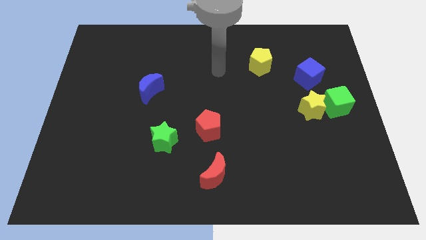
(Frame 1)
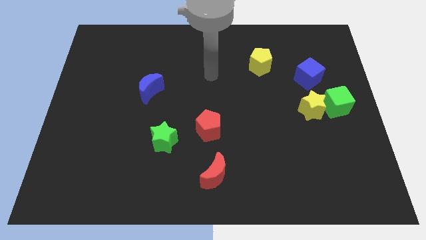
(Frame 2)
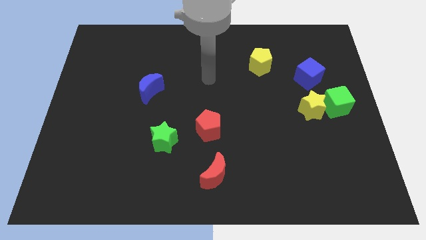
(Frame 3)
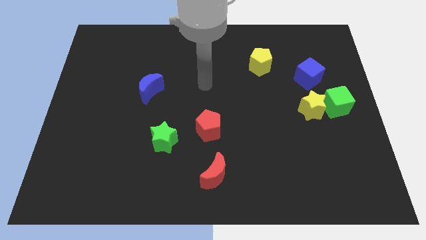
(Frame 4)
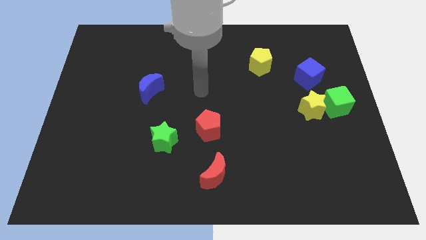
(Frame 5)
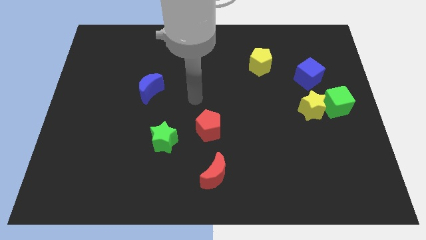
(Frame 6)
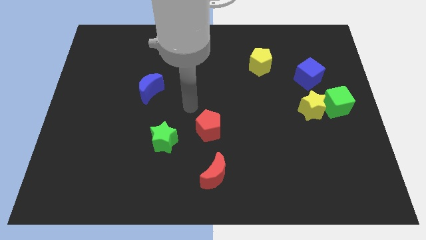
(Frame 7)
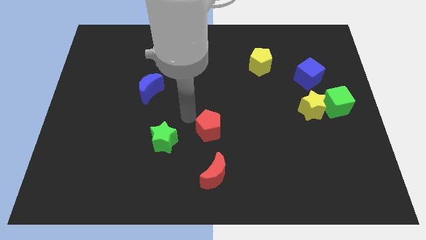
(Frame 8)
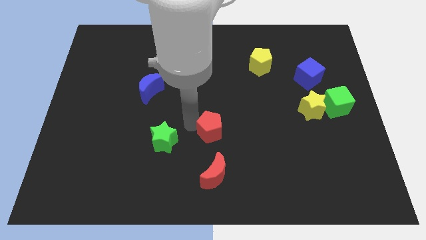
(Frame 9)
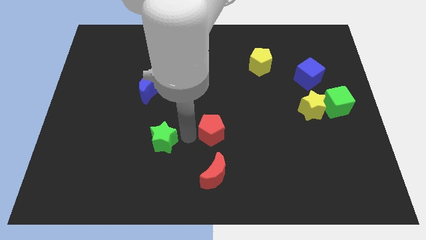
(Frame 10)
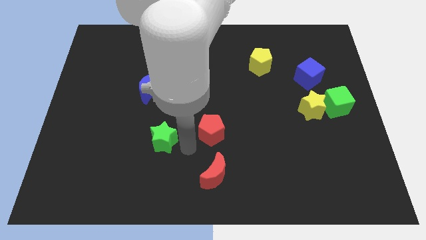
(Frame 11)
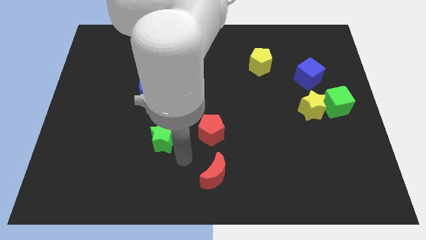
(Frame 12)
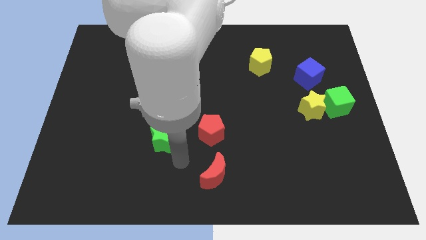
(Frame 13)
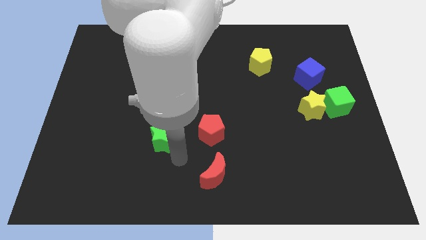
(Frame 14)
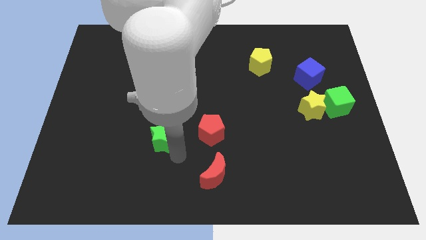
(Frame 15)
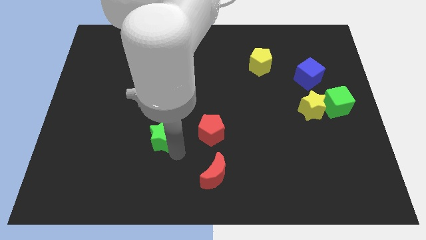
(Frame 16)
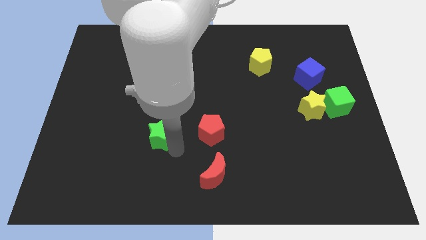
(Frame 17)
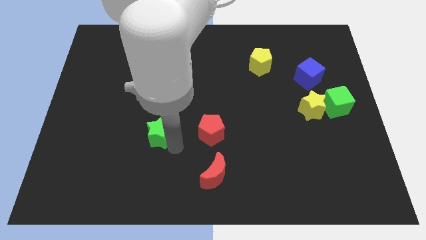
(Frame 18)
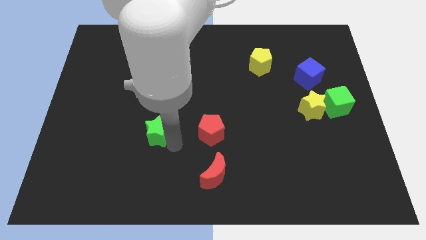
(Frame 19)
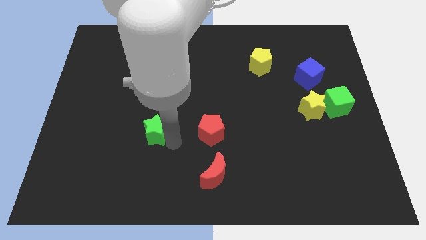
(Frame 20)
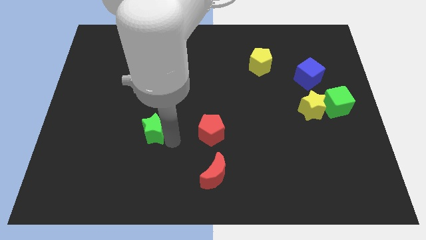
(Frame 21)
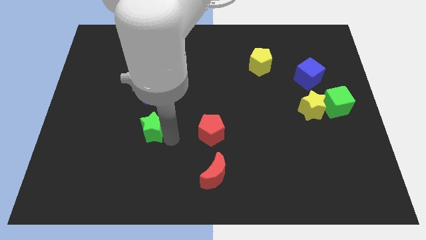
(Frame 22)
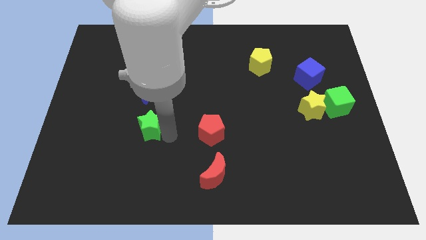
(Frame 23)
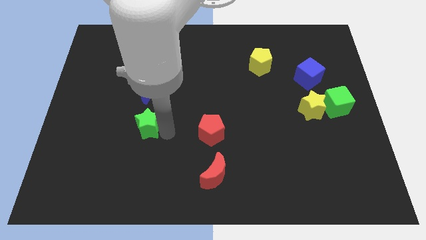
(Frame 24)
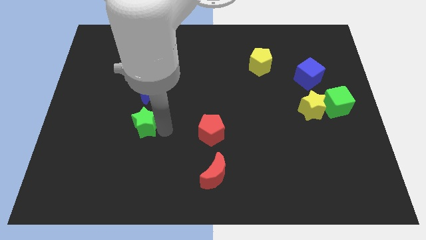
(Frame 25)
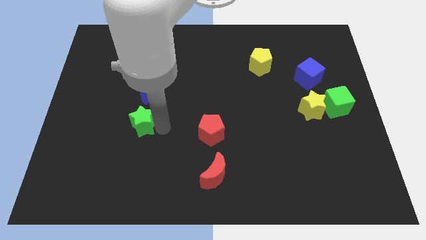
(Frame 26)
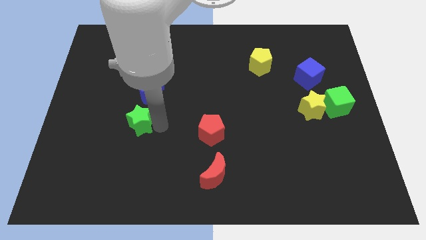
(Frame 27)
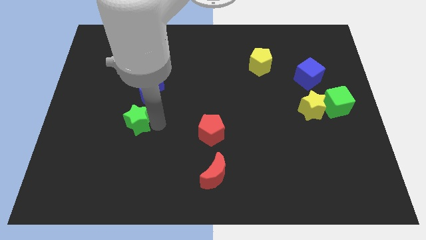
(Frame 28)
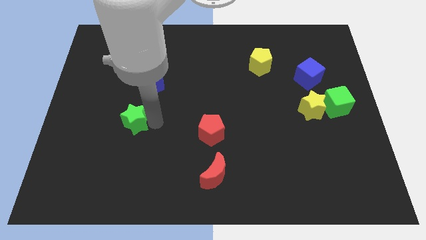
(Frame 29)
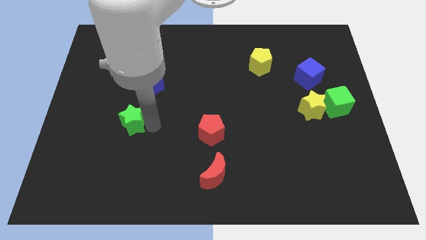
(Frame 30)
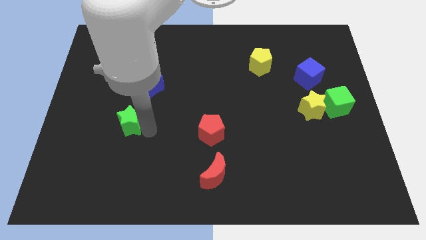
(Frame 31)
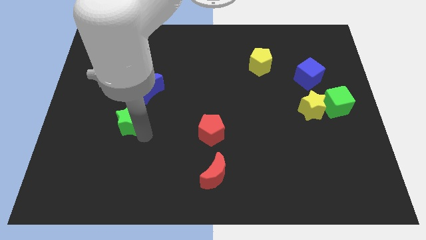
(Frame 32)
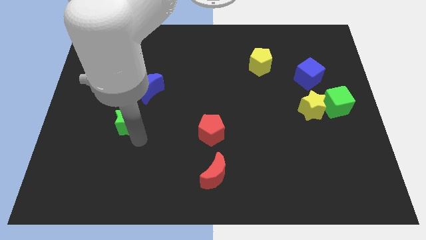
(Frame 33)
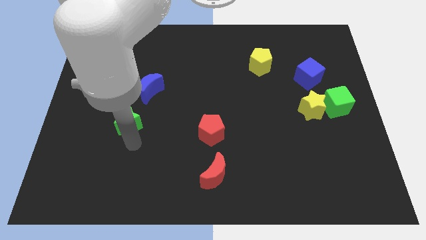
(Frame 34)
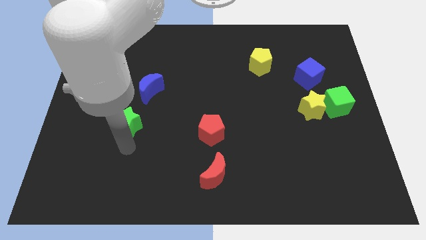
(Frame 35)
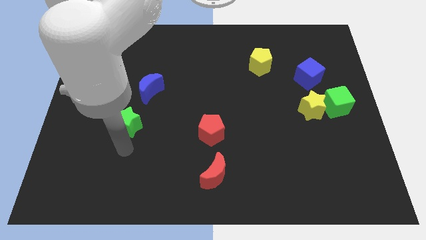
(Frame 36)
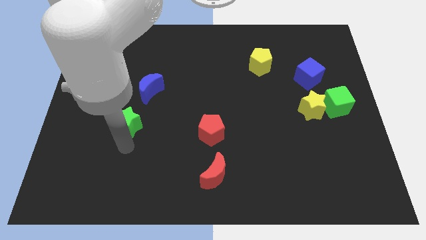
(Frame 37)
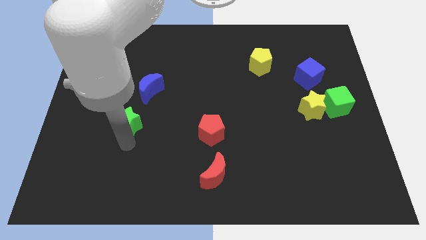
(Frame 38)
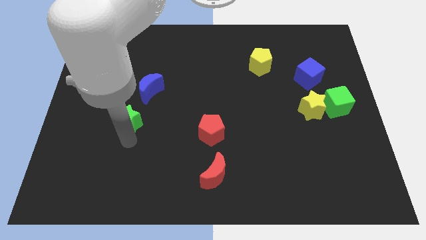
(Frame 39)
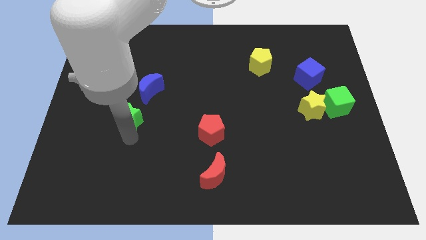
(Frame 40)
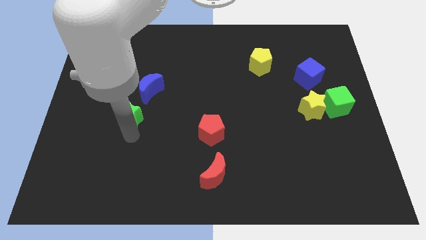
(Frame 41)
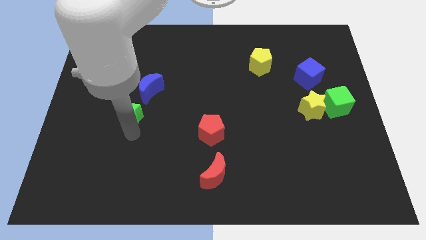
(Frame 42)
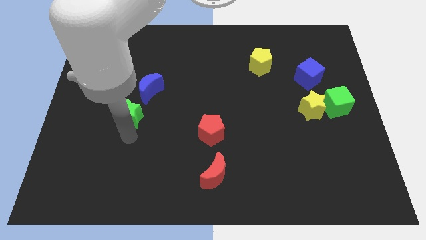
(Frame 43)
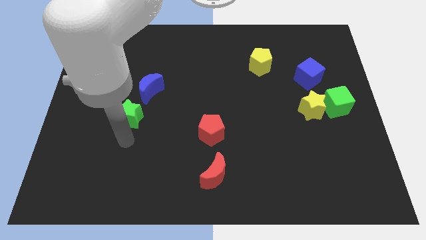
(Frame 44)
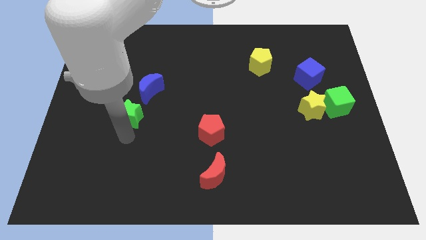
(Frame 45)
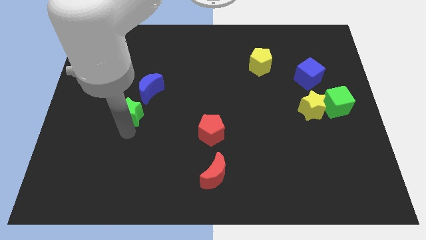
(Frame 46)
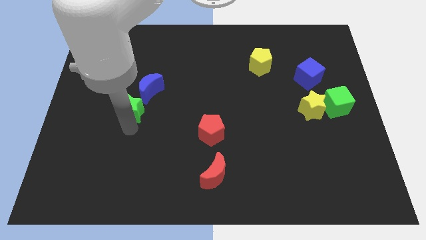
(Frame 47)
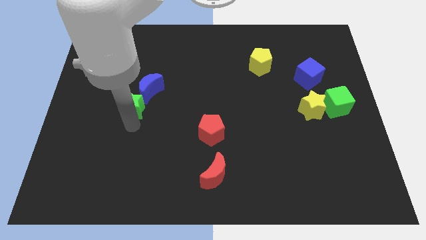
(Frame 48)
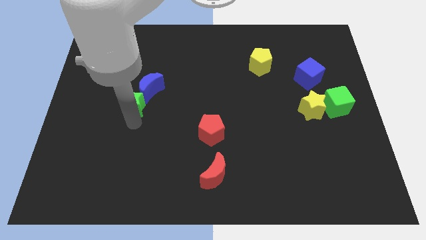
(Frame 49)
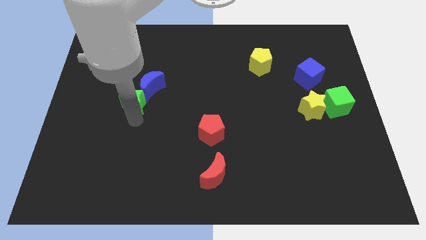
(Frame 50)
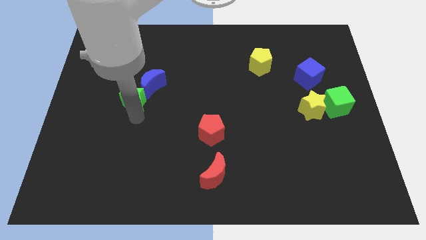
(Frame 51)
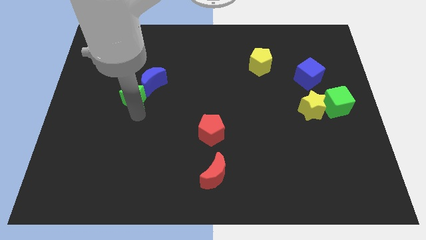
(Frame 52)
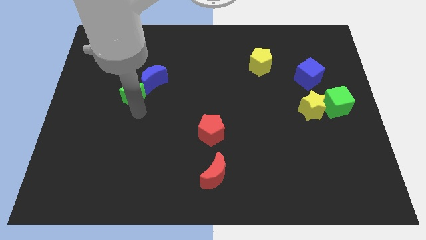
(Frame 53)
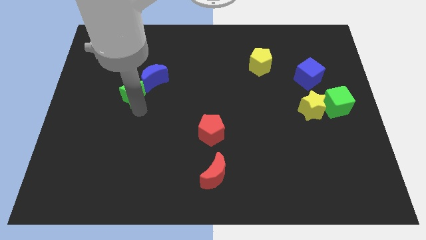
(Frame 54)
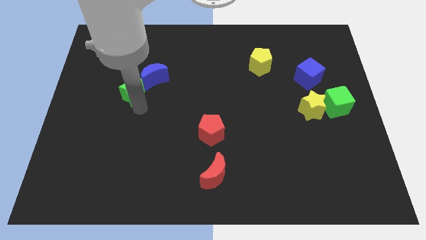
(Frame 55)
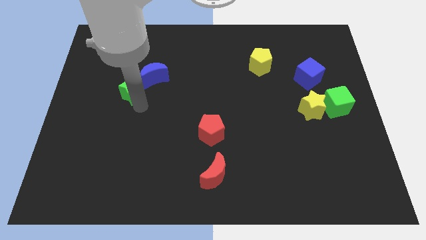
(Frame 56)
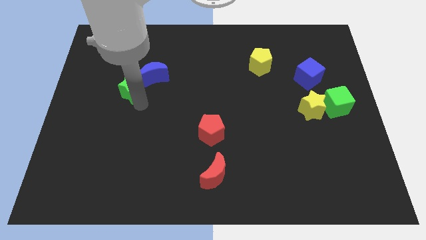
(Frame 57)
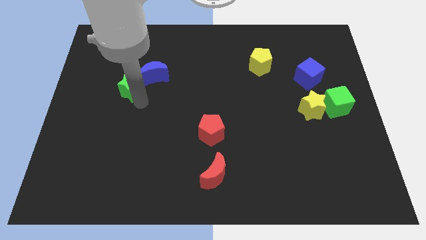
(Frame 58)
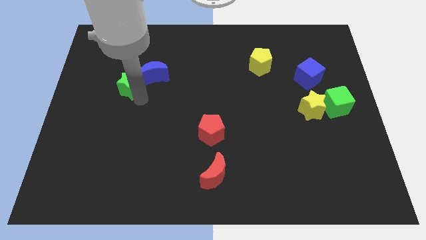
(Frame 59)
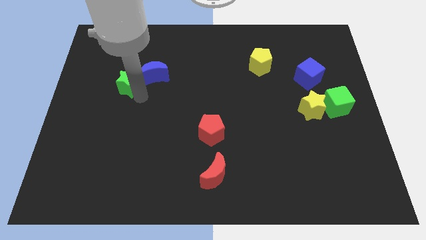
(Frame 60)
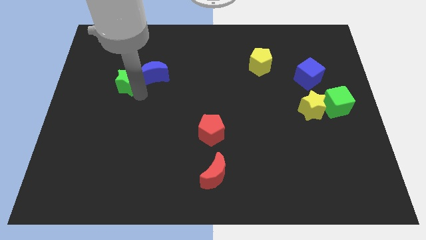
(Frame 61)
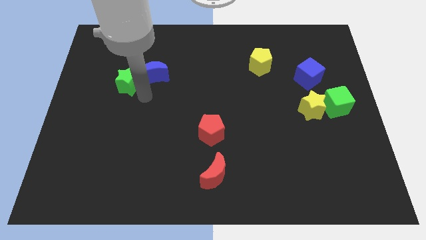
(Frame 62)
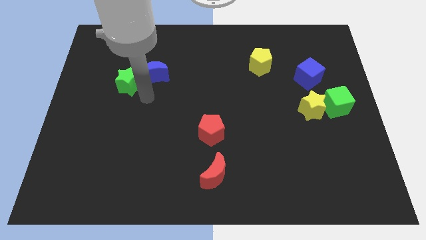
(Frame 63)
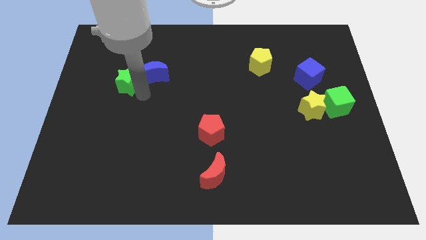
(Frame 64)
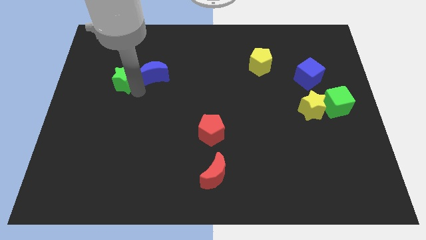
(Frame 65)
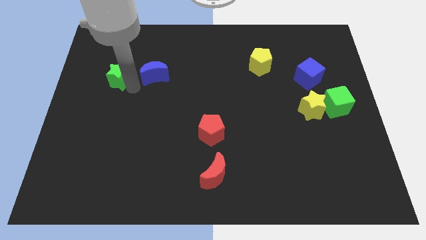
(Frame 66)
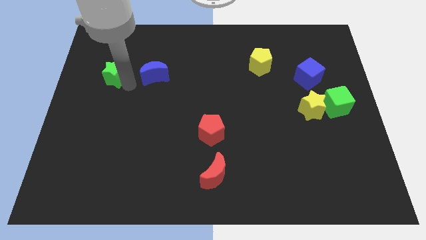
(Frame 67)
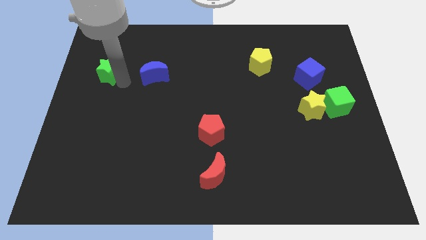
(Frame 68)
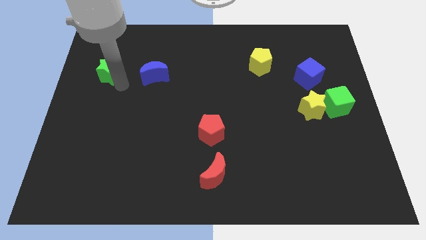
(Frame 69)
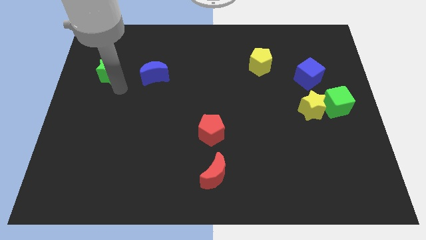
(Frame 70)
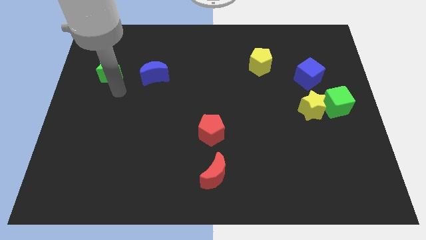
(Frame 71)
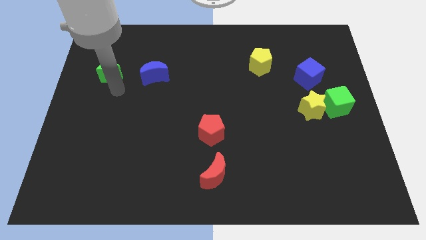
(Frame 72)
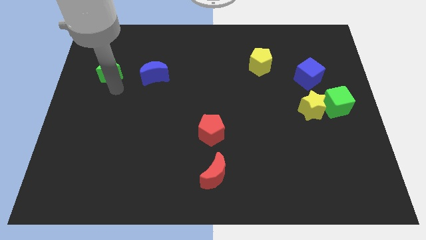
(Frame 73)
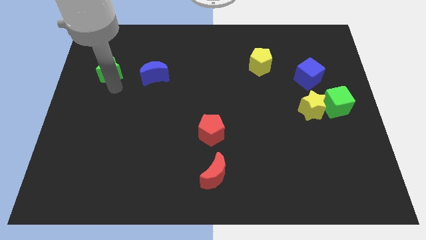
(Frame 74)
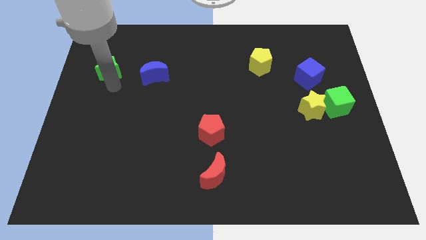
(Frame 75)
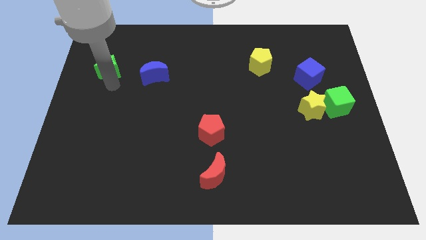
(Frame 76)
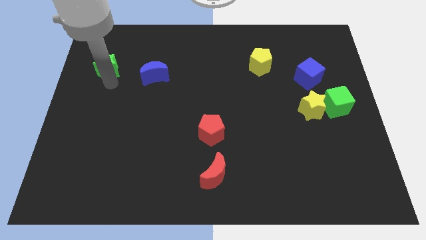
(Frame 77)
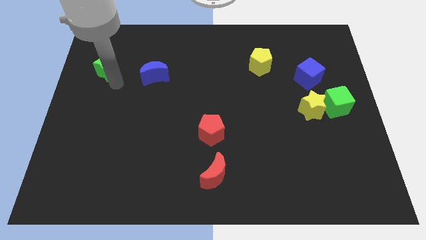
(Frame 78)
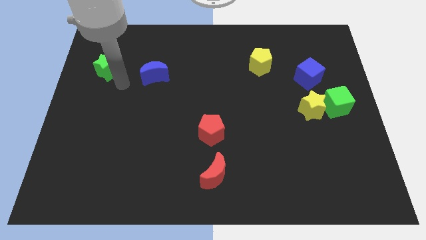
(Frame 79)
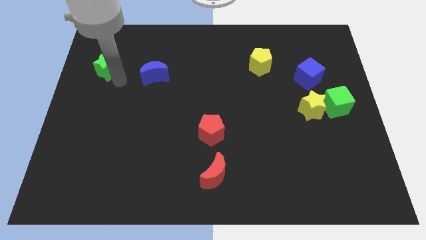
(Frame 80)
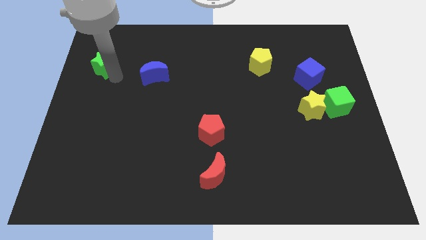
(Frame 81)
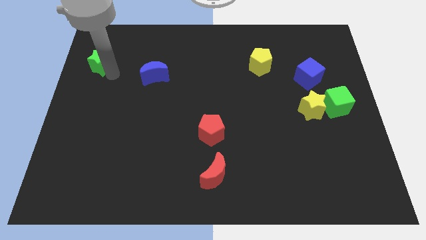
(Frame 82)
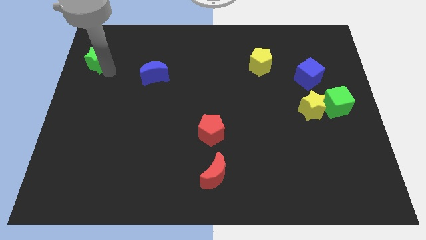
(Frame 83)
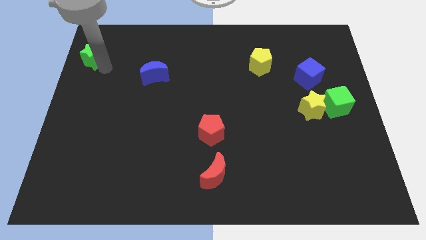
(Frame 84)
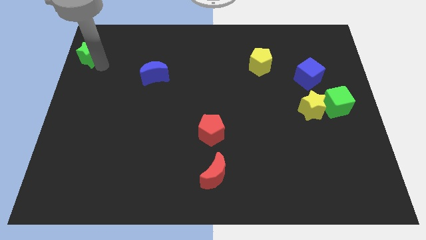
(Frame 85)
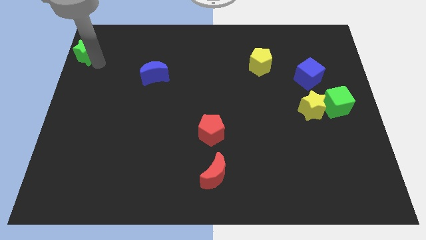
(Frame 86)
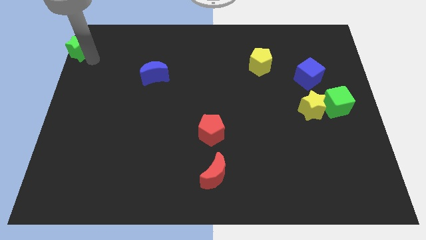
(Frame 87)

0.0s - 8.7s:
move the green star to the top left of the board
